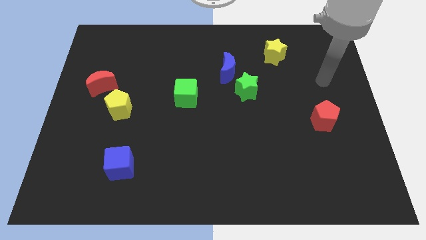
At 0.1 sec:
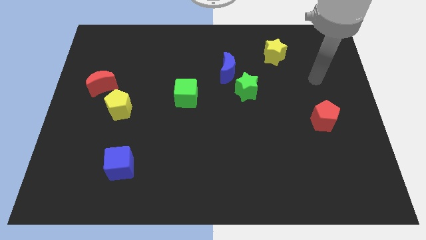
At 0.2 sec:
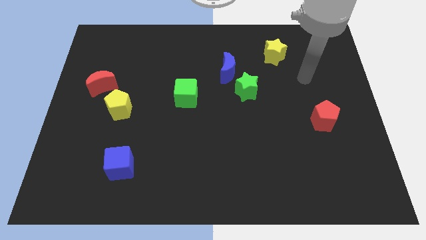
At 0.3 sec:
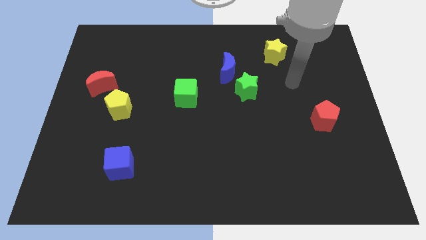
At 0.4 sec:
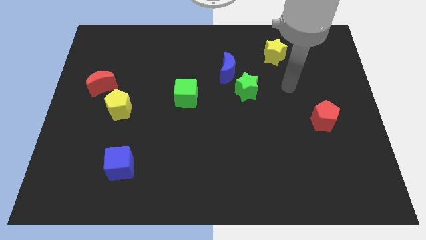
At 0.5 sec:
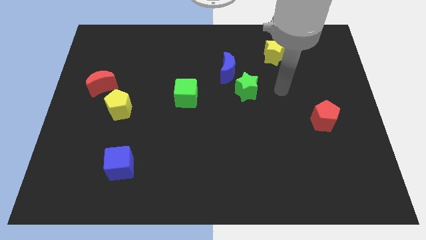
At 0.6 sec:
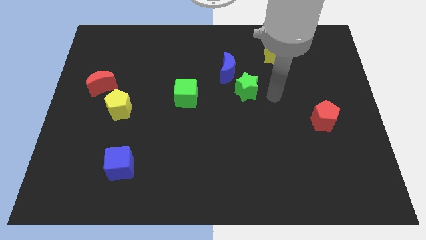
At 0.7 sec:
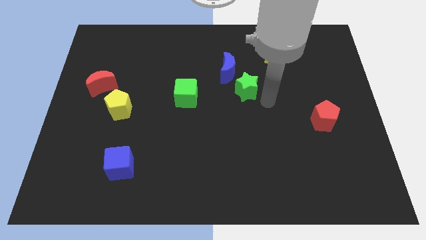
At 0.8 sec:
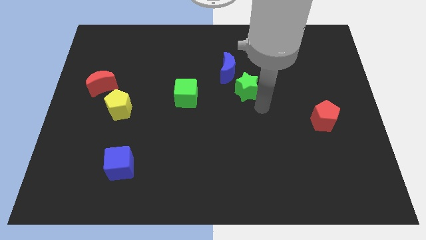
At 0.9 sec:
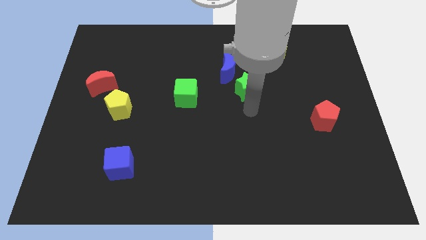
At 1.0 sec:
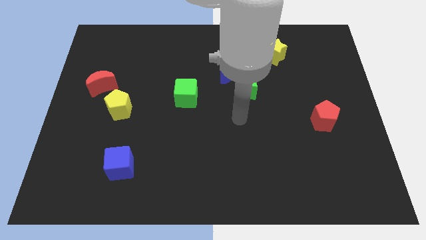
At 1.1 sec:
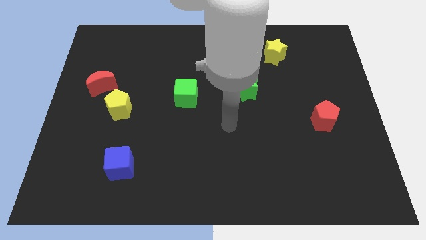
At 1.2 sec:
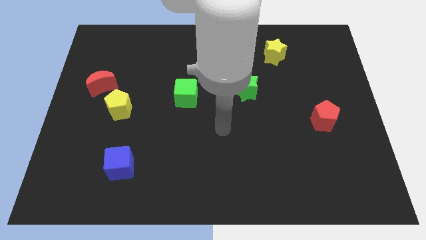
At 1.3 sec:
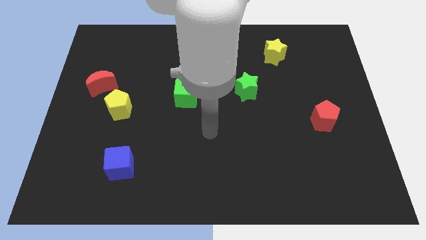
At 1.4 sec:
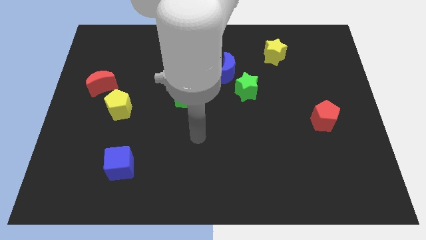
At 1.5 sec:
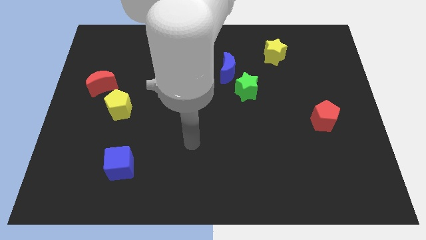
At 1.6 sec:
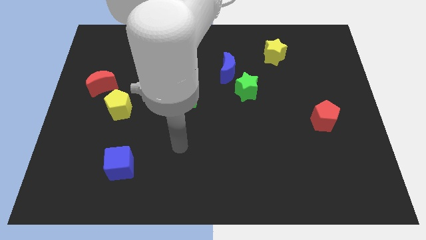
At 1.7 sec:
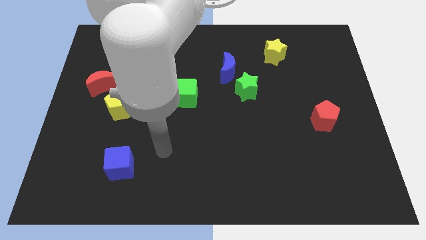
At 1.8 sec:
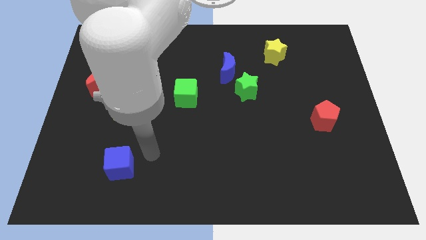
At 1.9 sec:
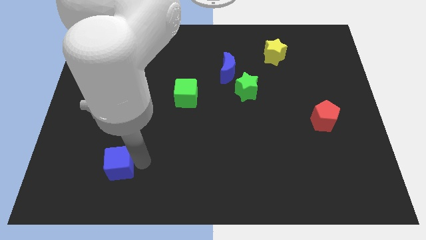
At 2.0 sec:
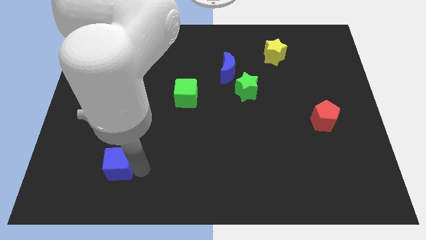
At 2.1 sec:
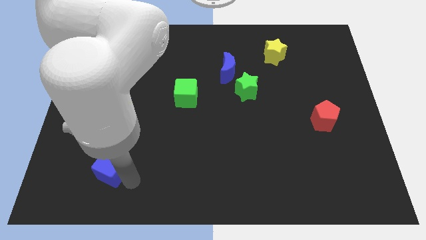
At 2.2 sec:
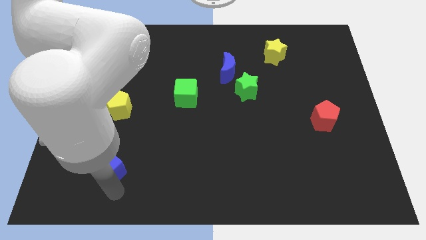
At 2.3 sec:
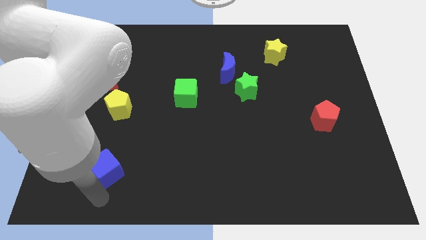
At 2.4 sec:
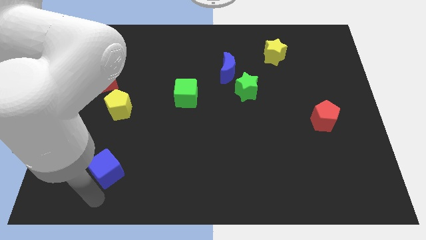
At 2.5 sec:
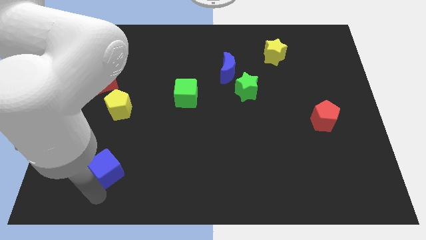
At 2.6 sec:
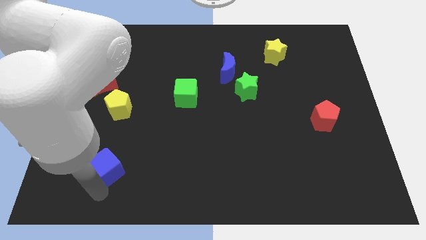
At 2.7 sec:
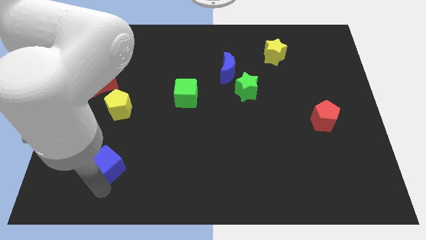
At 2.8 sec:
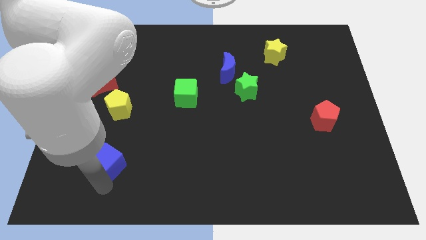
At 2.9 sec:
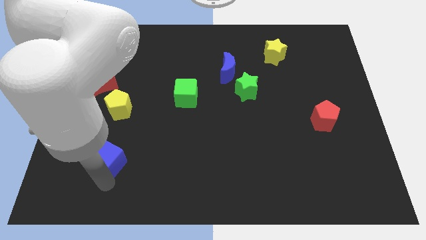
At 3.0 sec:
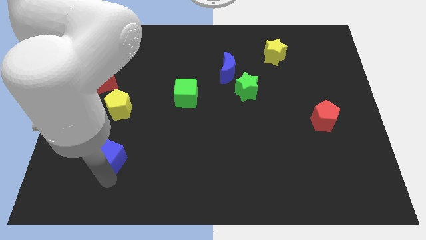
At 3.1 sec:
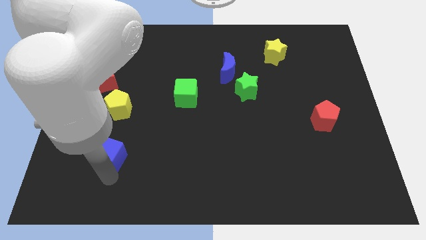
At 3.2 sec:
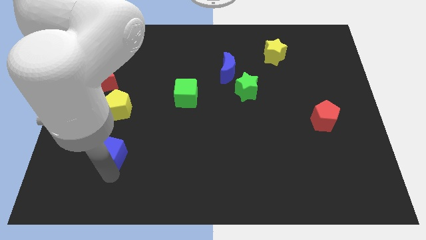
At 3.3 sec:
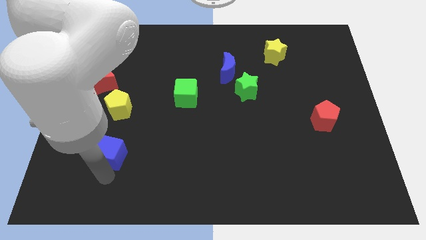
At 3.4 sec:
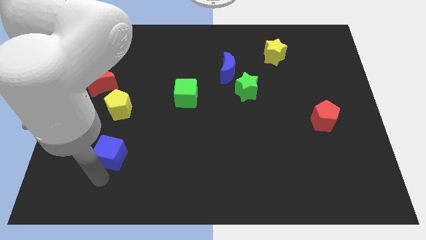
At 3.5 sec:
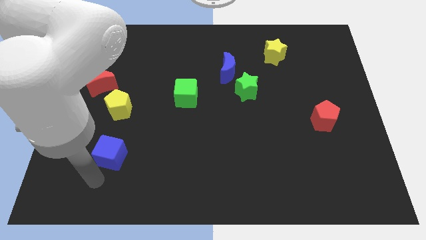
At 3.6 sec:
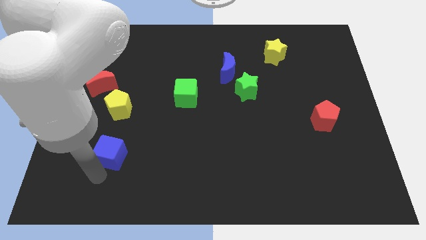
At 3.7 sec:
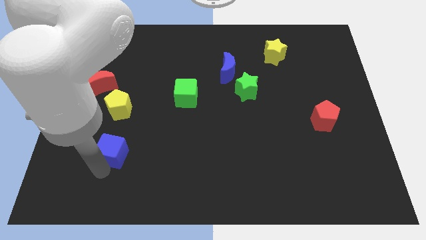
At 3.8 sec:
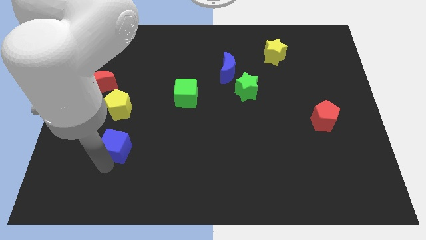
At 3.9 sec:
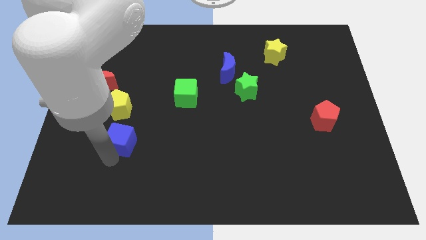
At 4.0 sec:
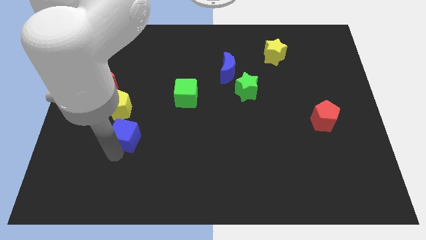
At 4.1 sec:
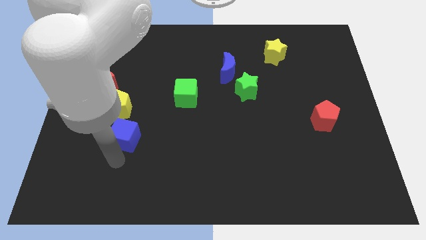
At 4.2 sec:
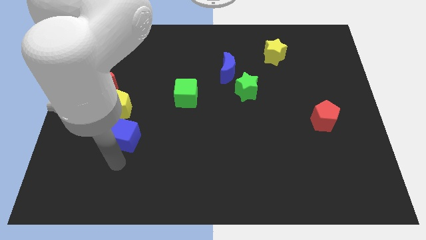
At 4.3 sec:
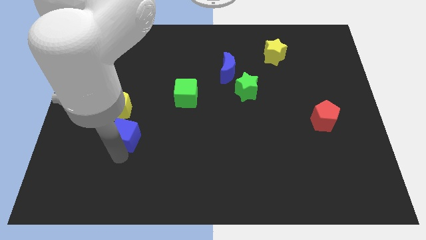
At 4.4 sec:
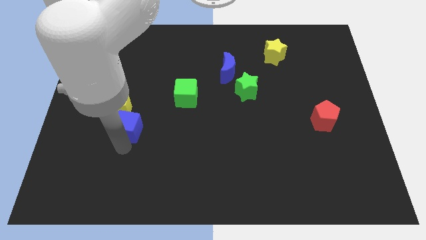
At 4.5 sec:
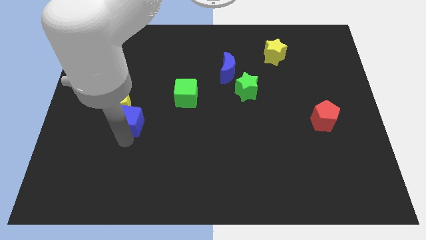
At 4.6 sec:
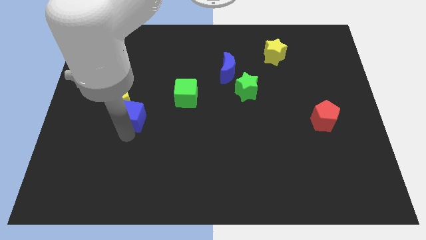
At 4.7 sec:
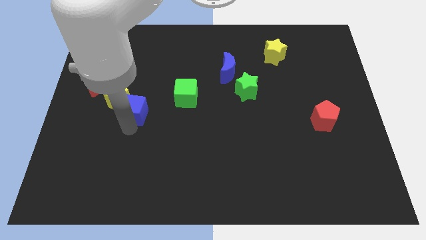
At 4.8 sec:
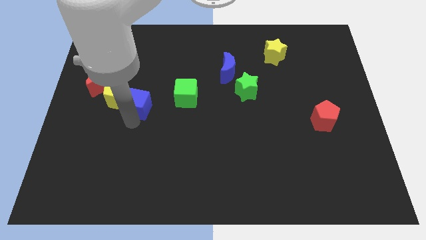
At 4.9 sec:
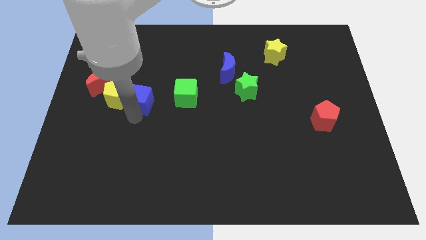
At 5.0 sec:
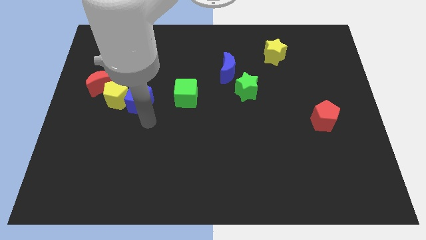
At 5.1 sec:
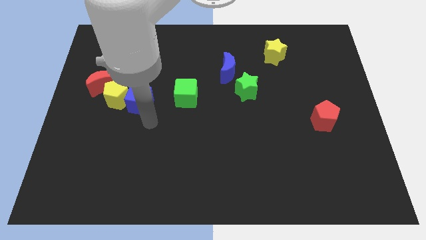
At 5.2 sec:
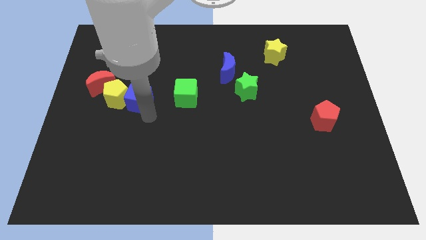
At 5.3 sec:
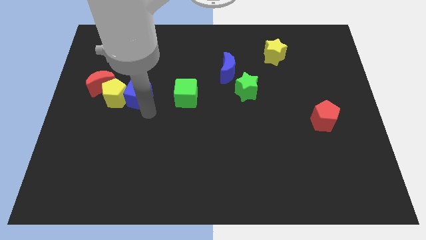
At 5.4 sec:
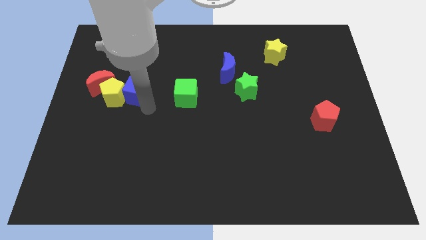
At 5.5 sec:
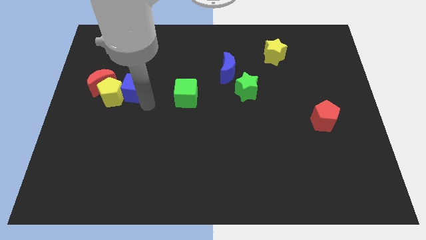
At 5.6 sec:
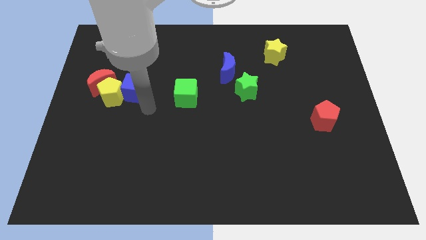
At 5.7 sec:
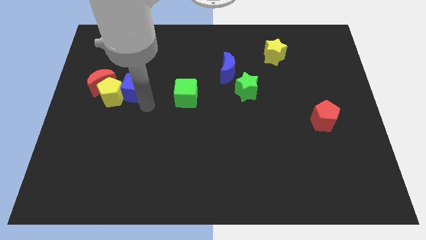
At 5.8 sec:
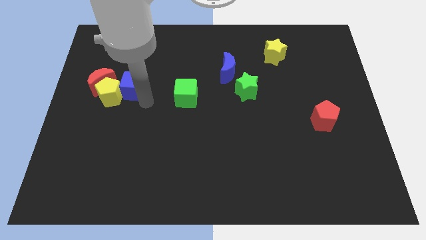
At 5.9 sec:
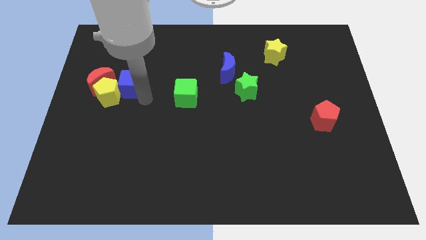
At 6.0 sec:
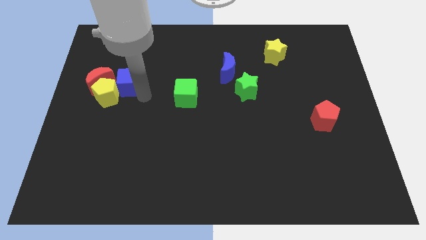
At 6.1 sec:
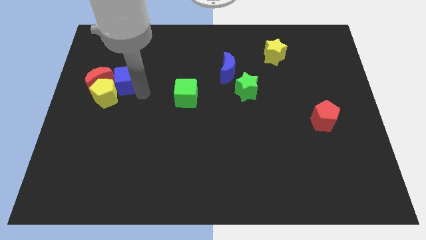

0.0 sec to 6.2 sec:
push the blue cube to the top of the yellow pentagon
